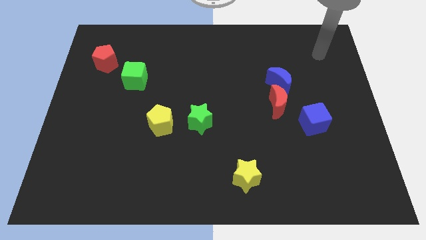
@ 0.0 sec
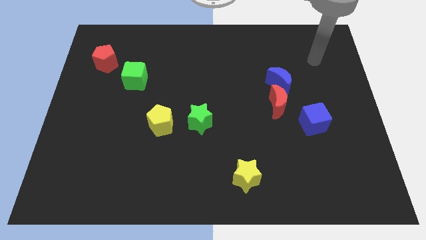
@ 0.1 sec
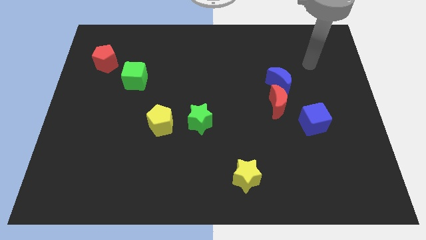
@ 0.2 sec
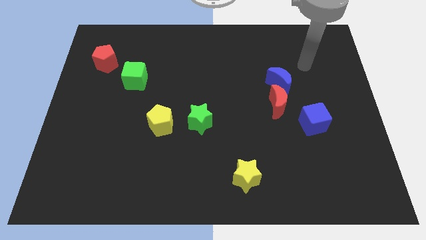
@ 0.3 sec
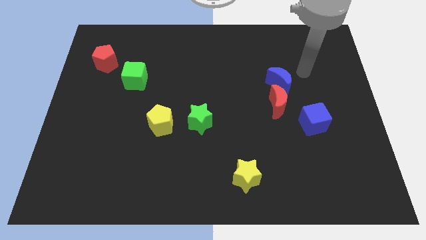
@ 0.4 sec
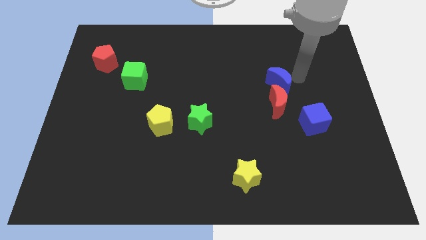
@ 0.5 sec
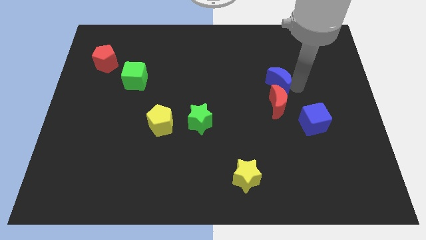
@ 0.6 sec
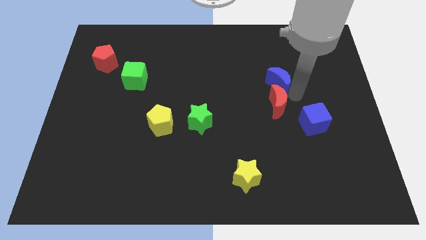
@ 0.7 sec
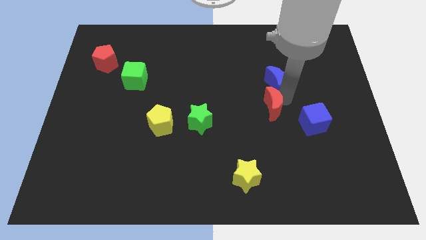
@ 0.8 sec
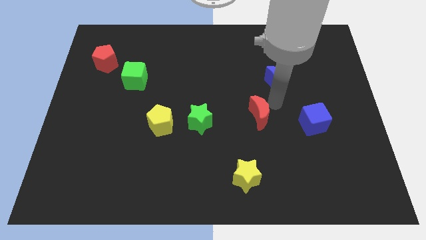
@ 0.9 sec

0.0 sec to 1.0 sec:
pull the blue moon apart from the red moon

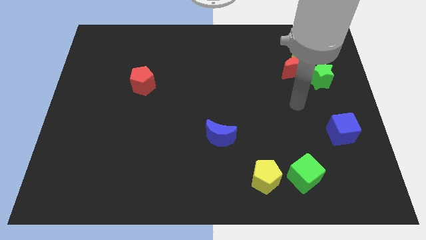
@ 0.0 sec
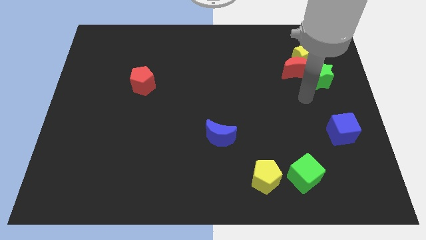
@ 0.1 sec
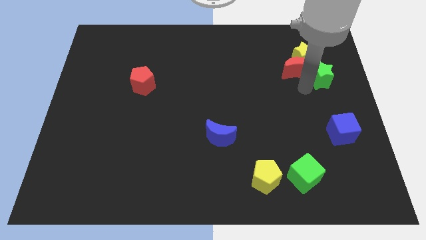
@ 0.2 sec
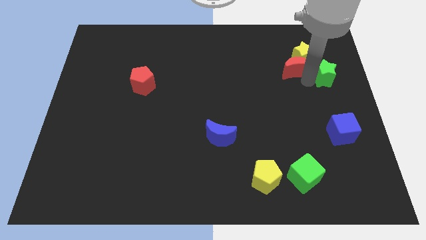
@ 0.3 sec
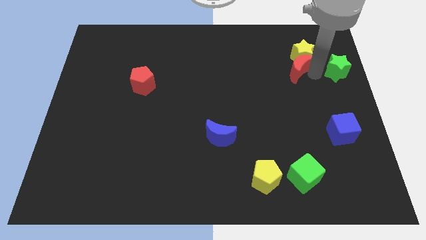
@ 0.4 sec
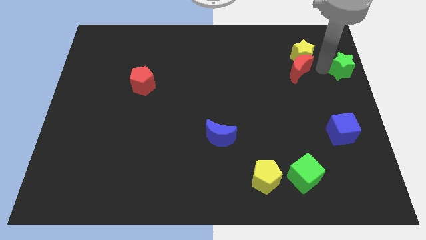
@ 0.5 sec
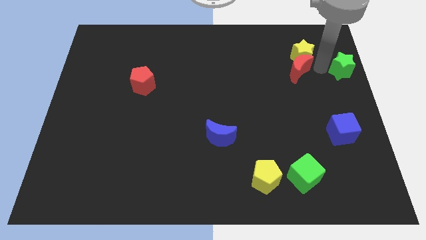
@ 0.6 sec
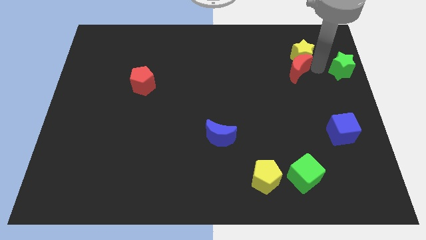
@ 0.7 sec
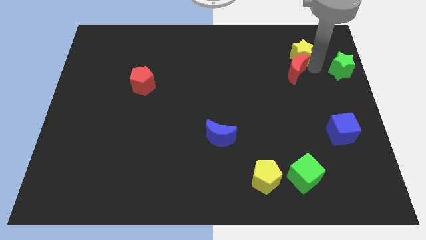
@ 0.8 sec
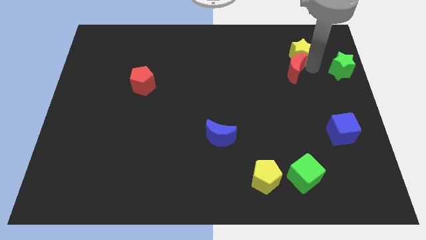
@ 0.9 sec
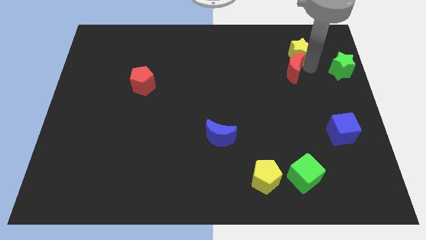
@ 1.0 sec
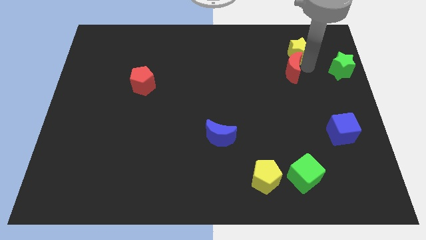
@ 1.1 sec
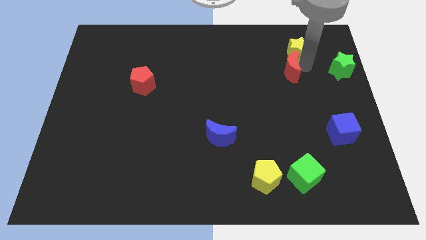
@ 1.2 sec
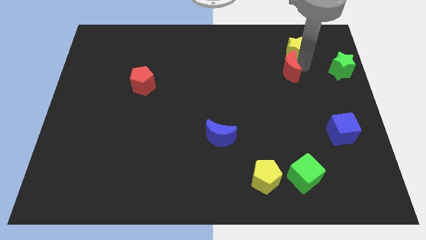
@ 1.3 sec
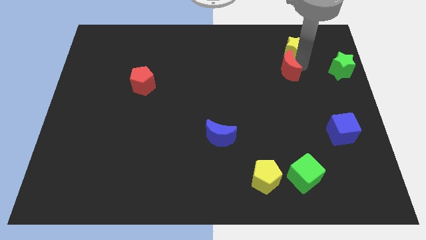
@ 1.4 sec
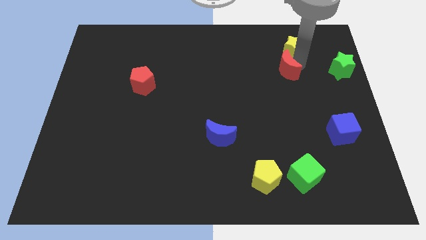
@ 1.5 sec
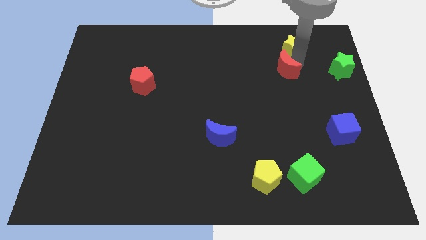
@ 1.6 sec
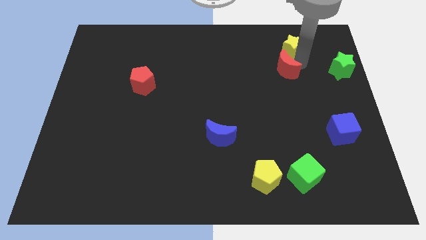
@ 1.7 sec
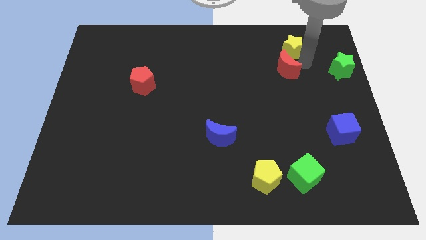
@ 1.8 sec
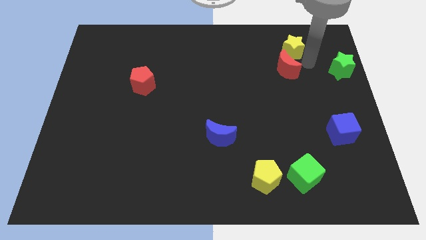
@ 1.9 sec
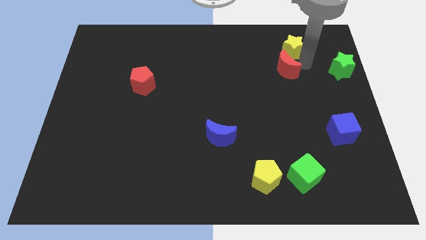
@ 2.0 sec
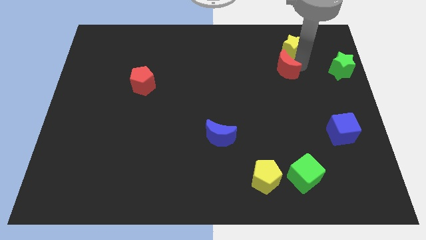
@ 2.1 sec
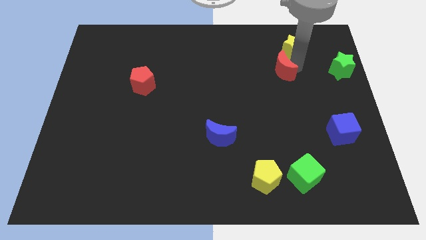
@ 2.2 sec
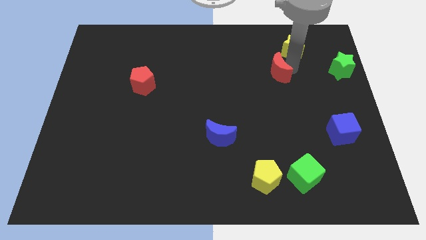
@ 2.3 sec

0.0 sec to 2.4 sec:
move the red moon away from the yellow star and green star

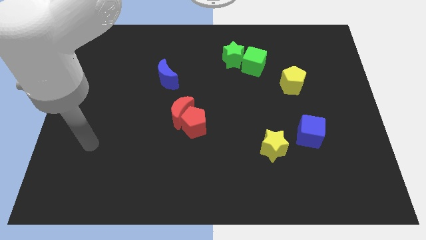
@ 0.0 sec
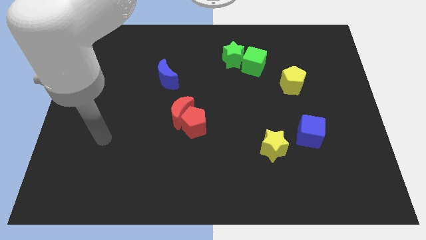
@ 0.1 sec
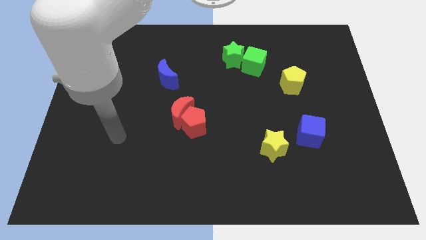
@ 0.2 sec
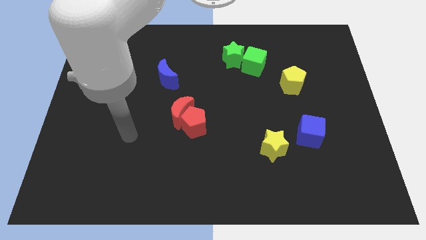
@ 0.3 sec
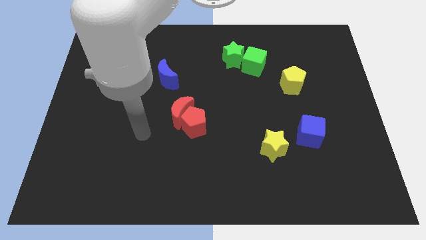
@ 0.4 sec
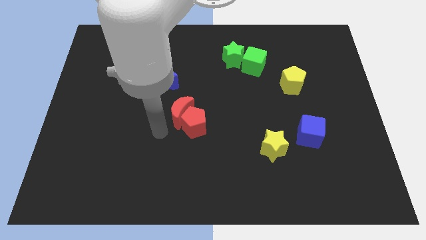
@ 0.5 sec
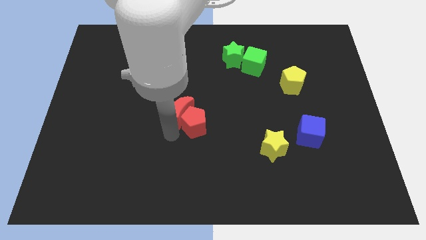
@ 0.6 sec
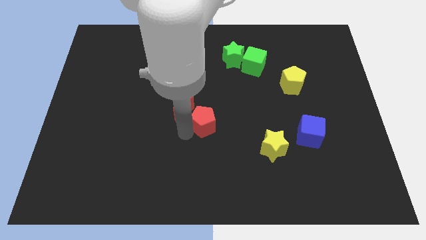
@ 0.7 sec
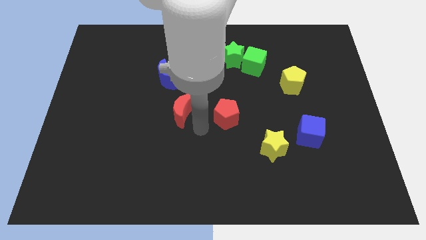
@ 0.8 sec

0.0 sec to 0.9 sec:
move the red moon away from the red pentagon

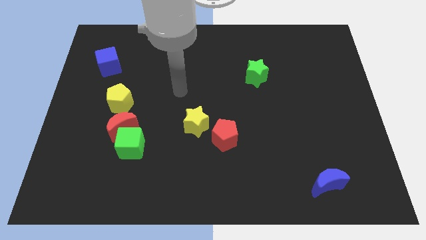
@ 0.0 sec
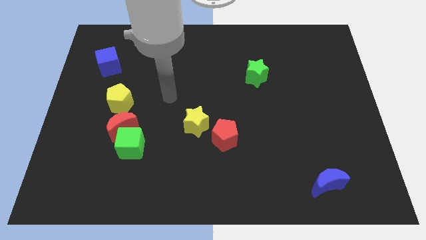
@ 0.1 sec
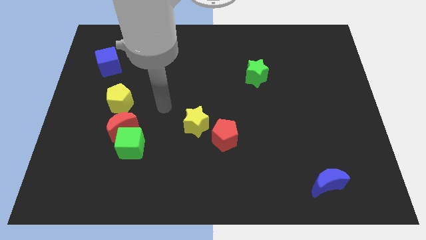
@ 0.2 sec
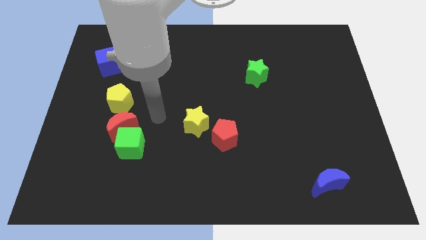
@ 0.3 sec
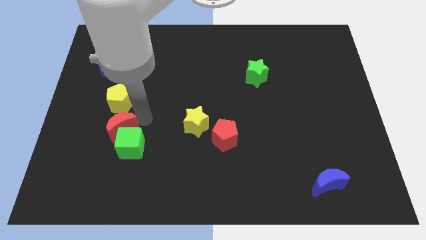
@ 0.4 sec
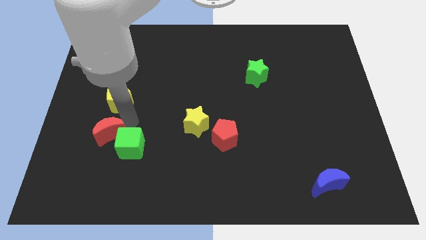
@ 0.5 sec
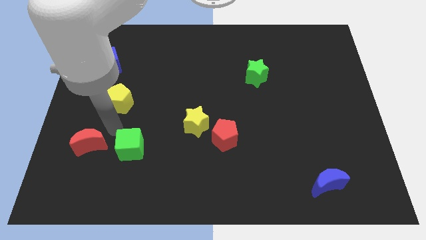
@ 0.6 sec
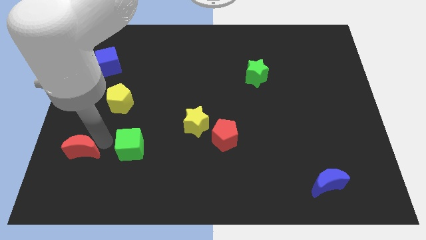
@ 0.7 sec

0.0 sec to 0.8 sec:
pull the green cube apart from the red moon

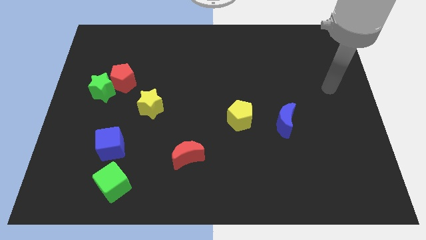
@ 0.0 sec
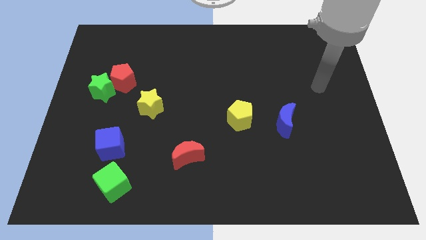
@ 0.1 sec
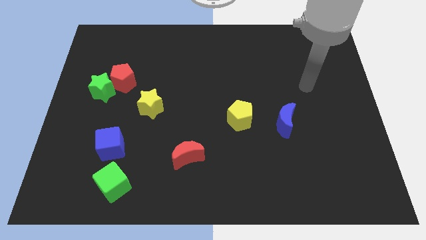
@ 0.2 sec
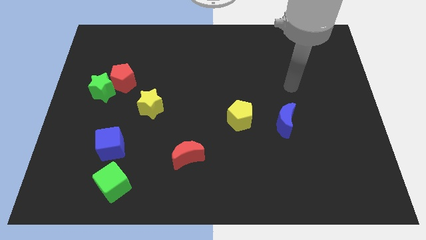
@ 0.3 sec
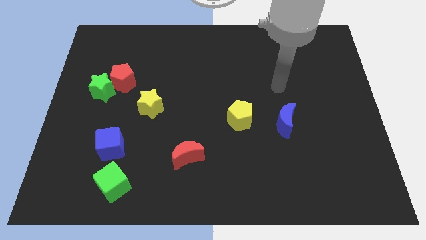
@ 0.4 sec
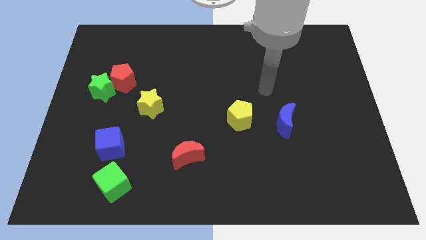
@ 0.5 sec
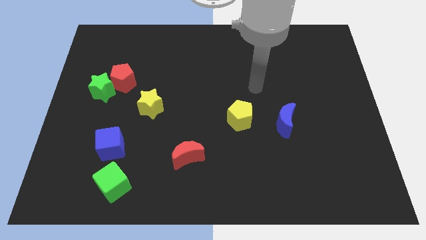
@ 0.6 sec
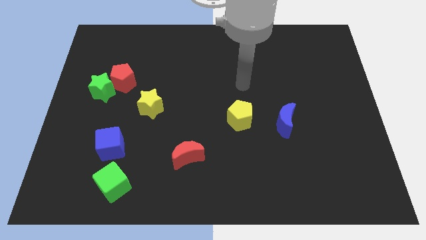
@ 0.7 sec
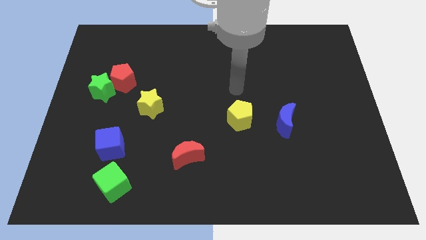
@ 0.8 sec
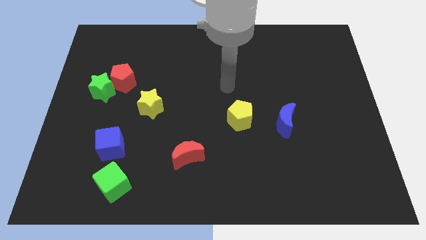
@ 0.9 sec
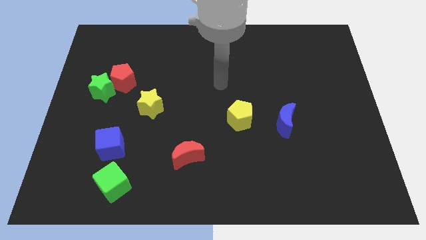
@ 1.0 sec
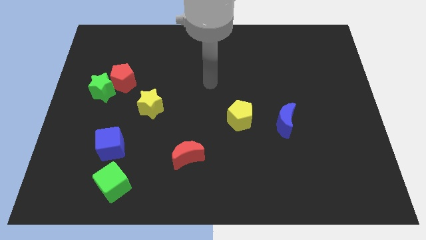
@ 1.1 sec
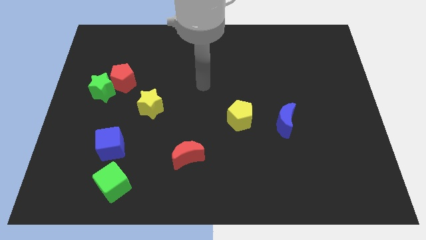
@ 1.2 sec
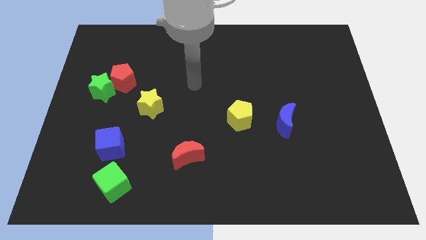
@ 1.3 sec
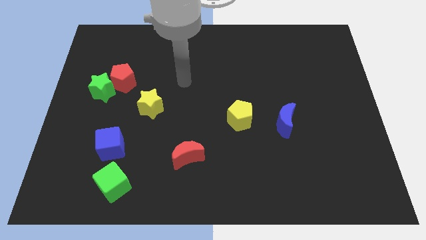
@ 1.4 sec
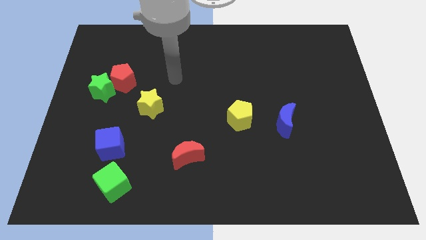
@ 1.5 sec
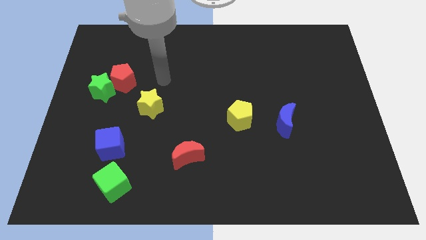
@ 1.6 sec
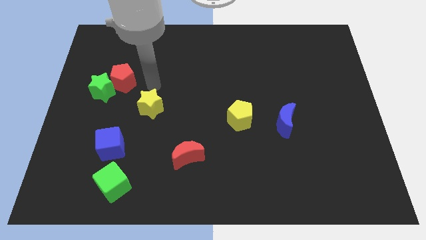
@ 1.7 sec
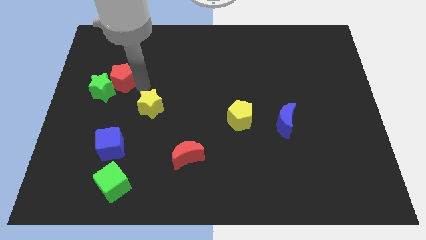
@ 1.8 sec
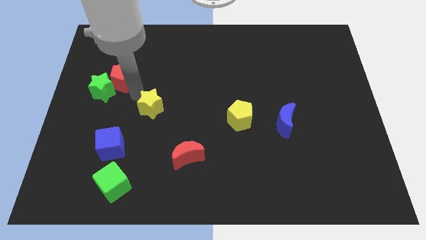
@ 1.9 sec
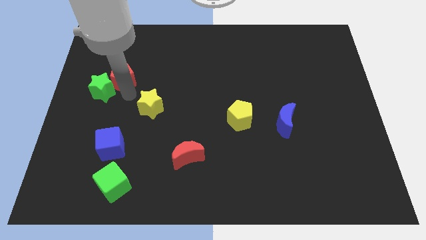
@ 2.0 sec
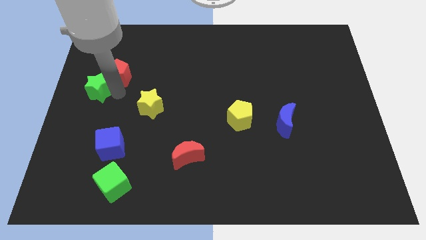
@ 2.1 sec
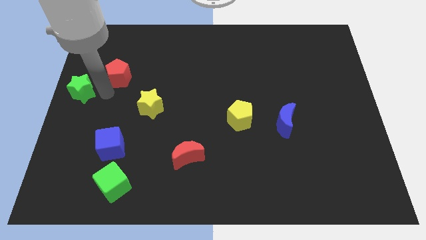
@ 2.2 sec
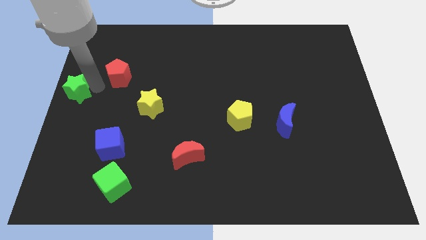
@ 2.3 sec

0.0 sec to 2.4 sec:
pull the red pentagon apart from the green star

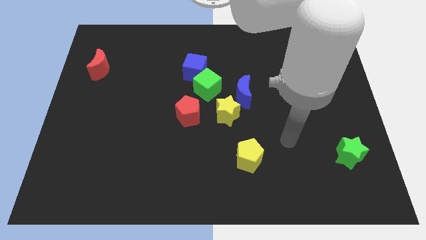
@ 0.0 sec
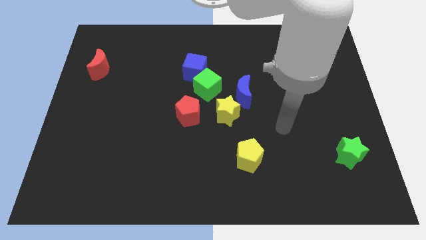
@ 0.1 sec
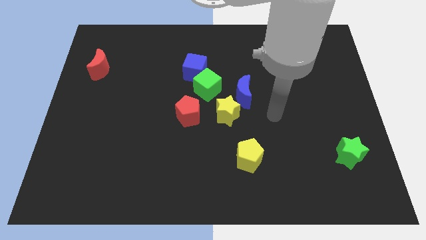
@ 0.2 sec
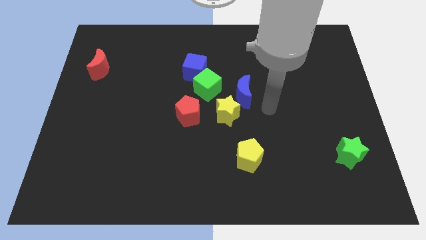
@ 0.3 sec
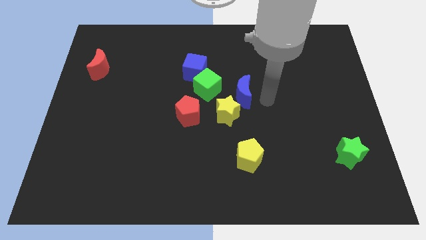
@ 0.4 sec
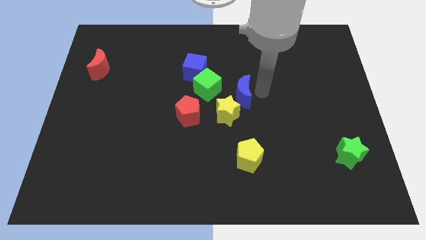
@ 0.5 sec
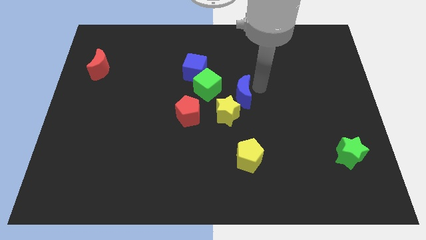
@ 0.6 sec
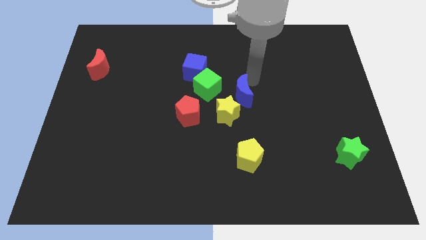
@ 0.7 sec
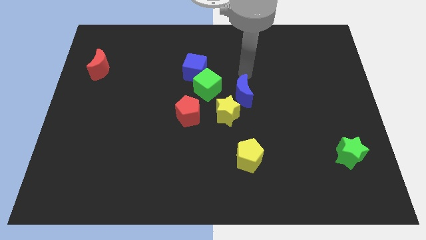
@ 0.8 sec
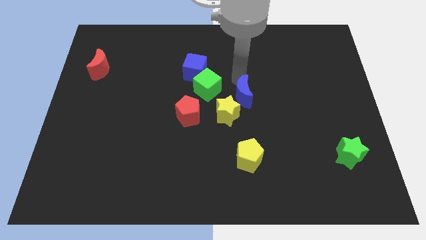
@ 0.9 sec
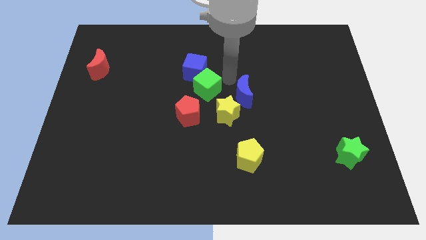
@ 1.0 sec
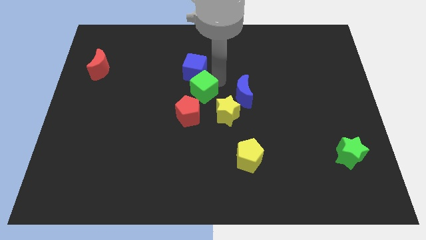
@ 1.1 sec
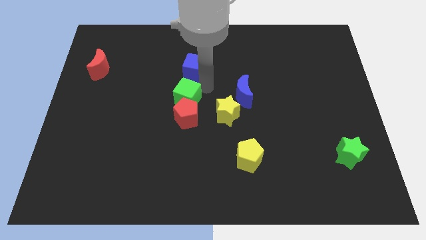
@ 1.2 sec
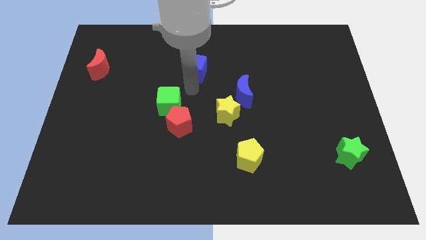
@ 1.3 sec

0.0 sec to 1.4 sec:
separate the blue cube from the green cube

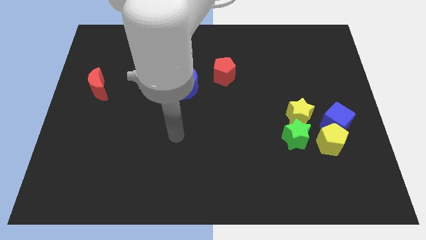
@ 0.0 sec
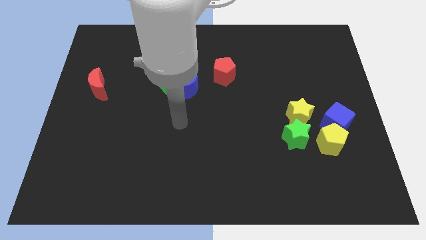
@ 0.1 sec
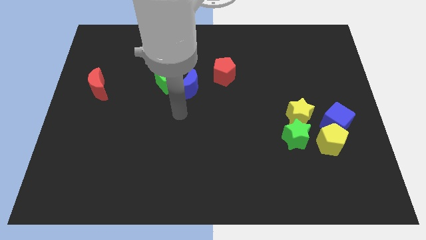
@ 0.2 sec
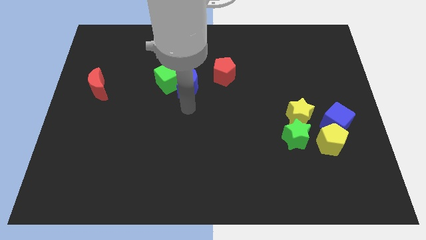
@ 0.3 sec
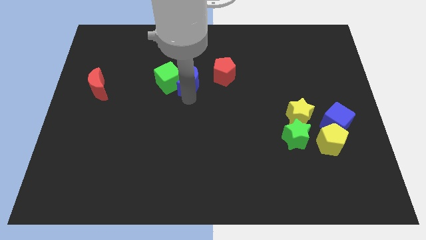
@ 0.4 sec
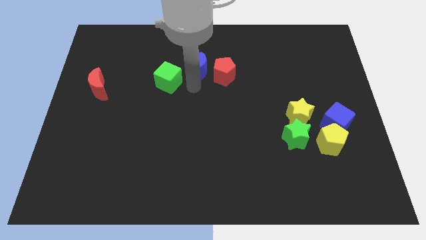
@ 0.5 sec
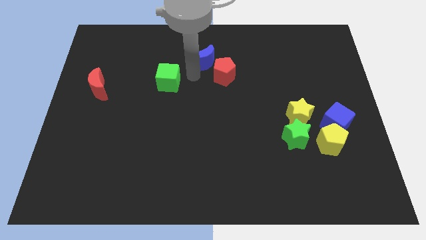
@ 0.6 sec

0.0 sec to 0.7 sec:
pull the green cube apart from the blue moon
